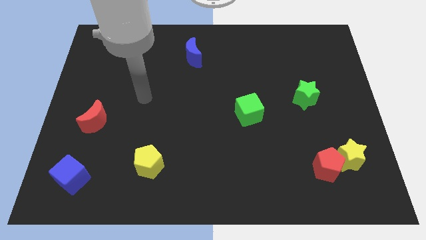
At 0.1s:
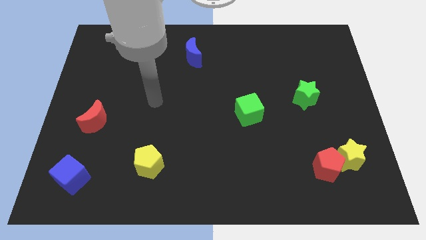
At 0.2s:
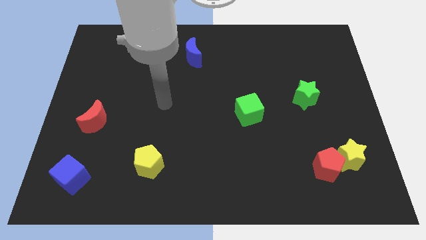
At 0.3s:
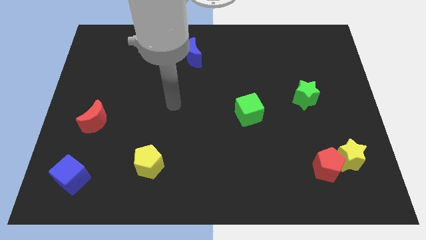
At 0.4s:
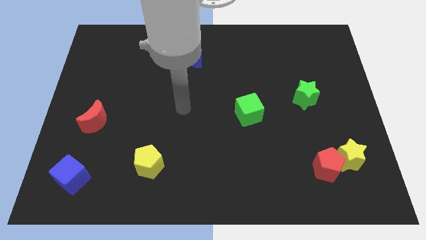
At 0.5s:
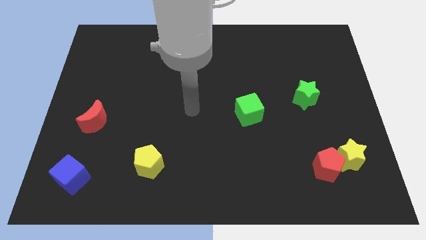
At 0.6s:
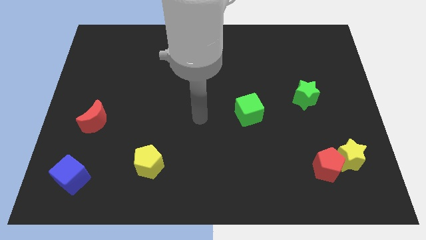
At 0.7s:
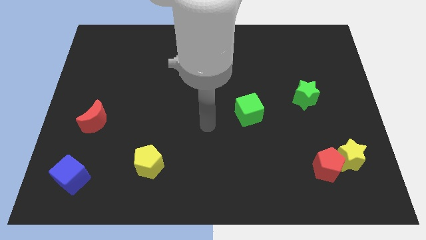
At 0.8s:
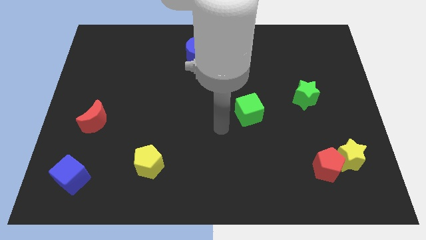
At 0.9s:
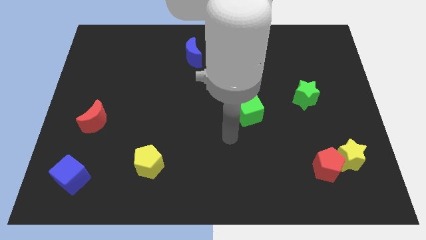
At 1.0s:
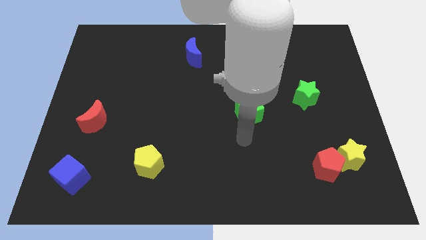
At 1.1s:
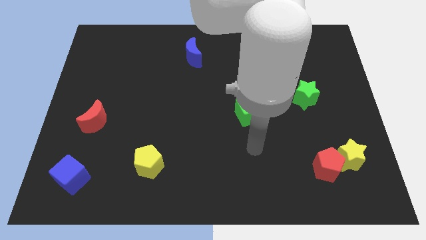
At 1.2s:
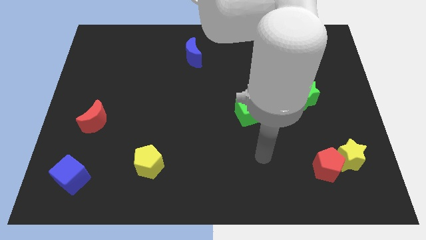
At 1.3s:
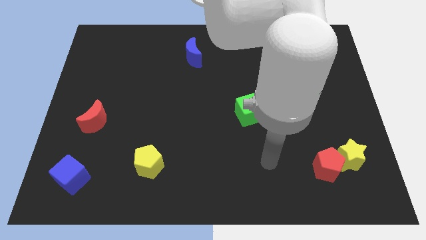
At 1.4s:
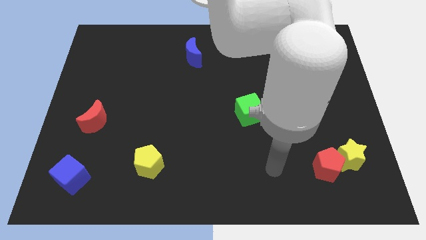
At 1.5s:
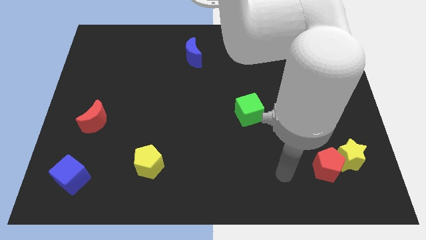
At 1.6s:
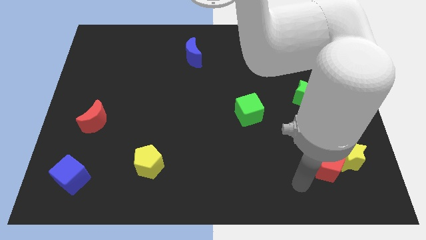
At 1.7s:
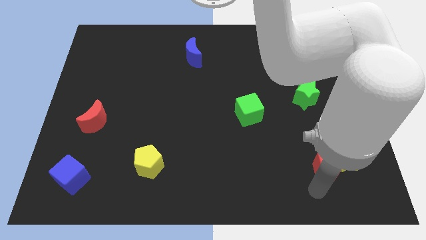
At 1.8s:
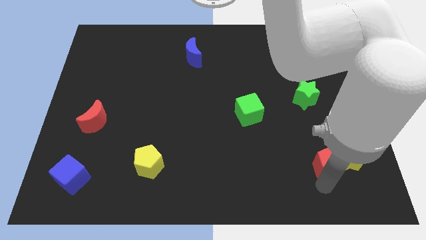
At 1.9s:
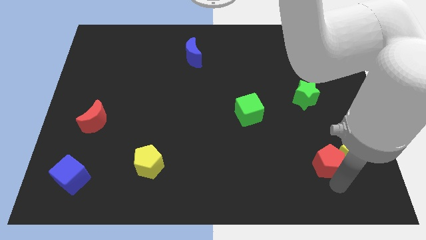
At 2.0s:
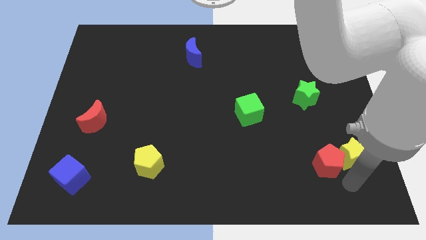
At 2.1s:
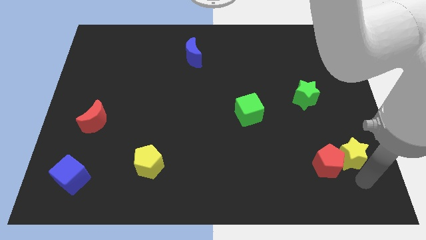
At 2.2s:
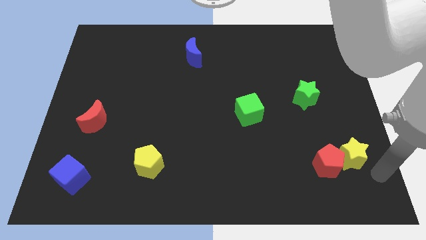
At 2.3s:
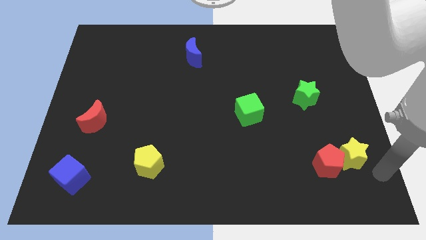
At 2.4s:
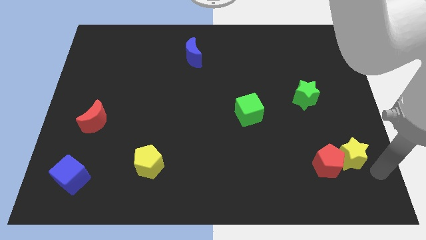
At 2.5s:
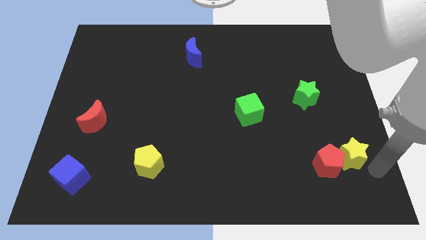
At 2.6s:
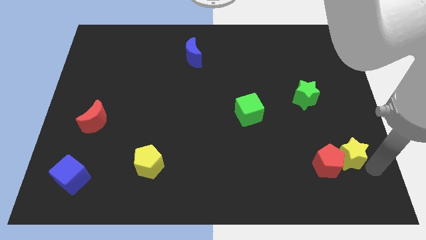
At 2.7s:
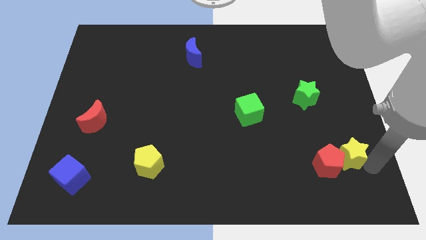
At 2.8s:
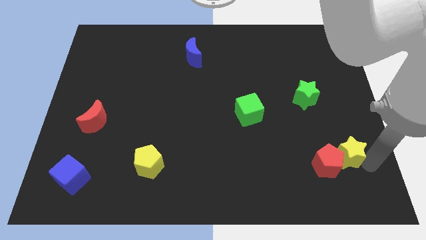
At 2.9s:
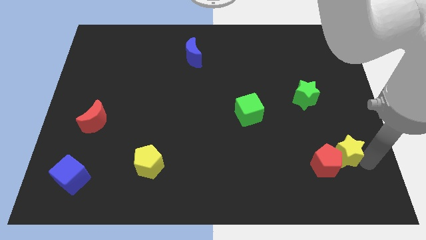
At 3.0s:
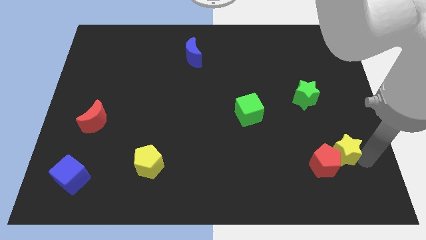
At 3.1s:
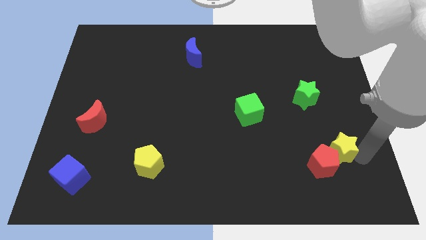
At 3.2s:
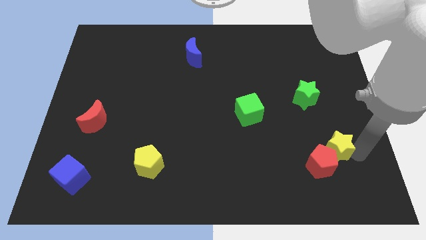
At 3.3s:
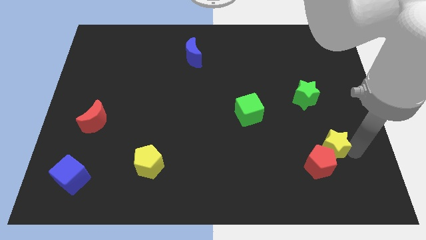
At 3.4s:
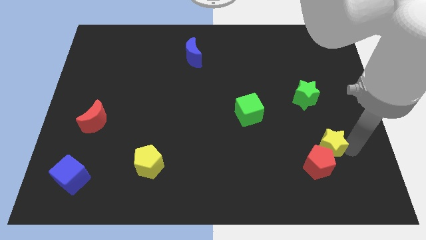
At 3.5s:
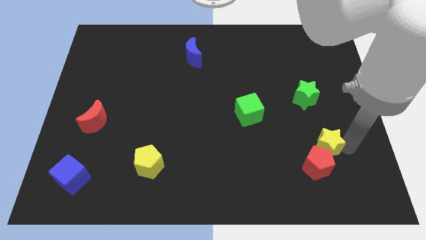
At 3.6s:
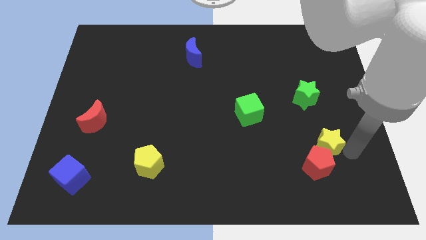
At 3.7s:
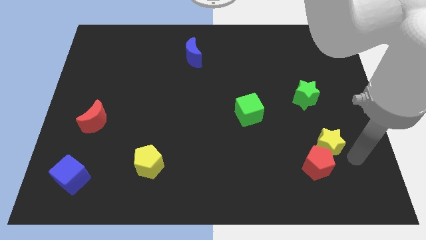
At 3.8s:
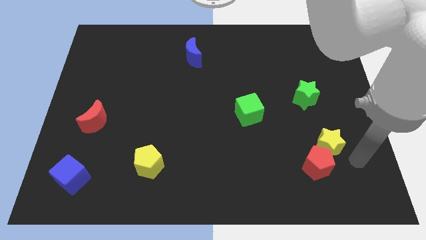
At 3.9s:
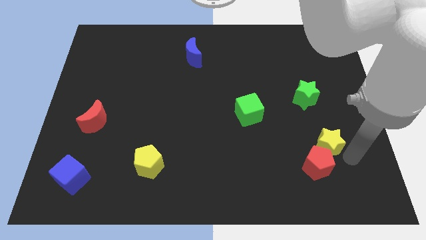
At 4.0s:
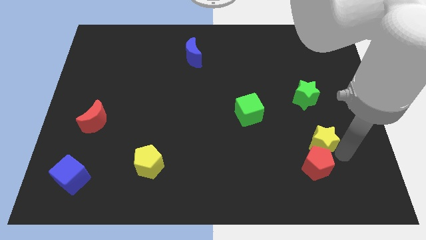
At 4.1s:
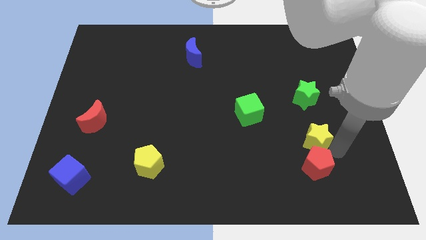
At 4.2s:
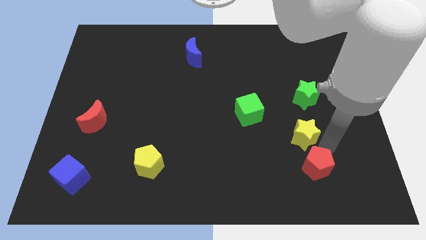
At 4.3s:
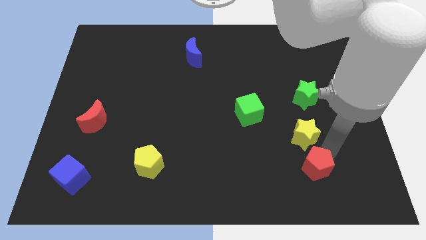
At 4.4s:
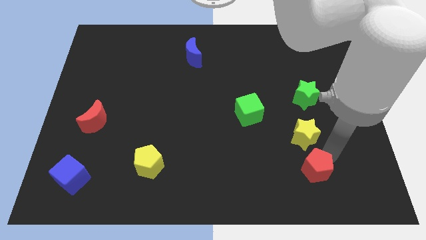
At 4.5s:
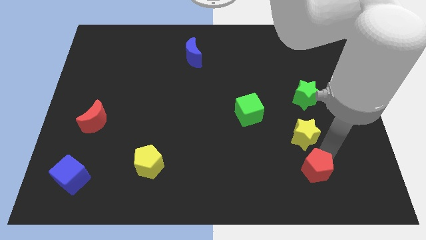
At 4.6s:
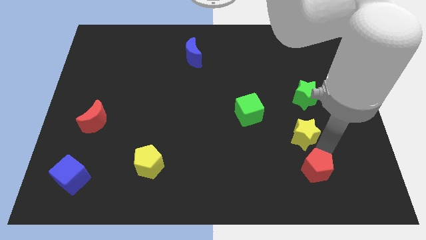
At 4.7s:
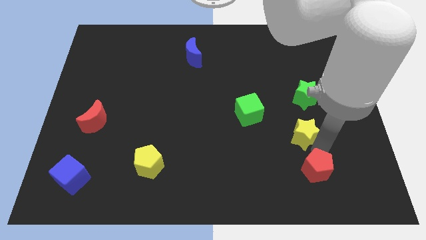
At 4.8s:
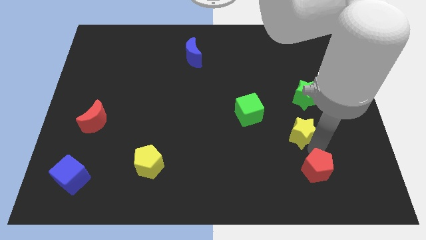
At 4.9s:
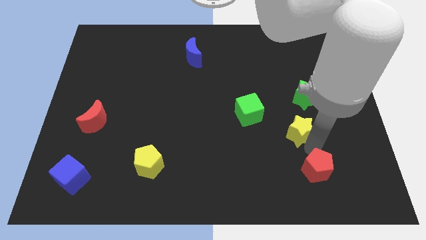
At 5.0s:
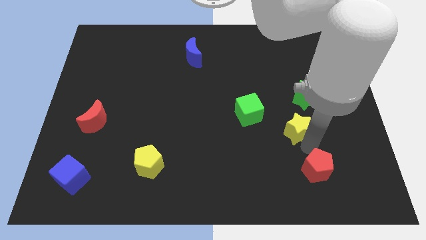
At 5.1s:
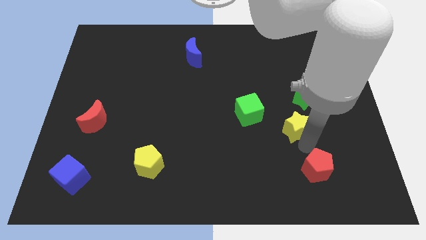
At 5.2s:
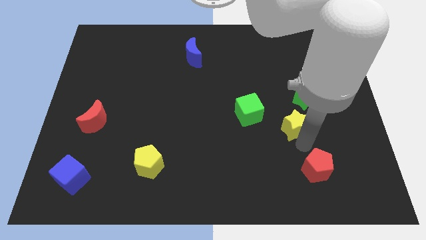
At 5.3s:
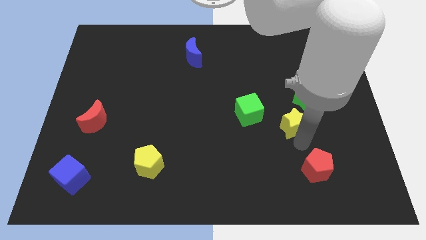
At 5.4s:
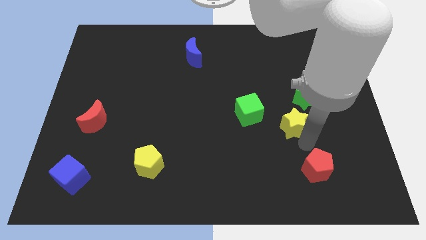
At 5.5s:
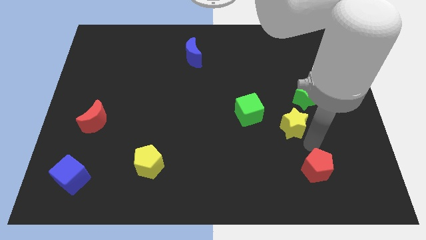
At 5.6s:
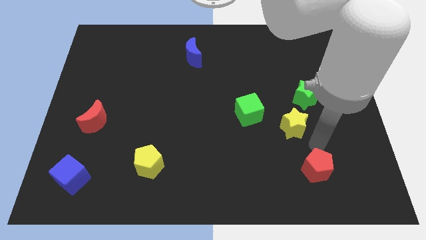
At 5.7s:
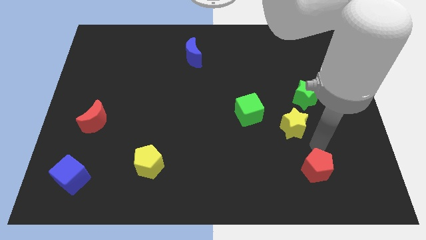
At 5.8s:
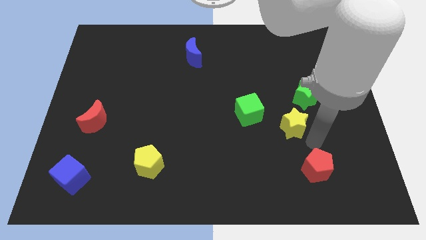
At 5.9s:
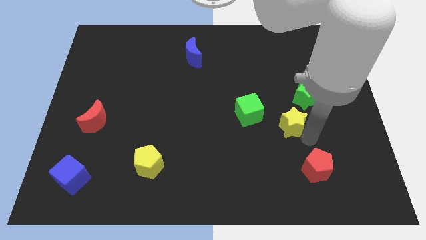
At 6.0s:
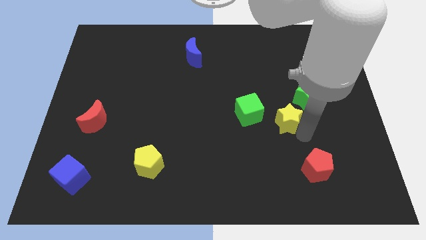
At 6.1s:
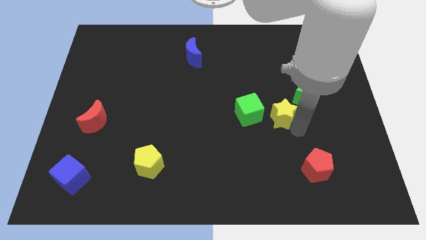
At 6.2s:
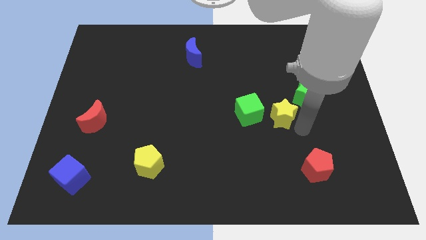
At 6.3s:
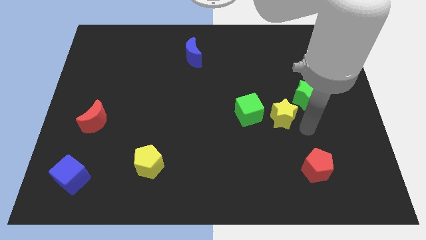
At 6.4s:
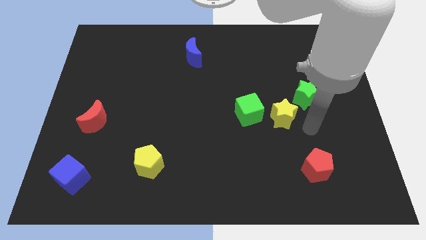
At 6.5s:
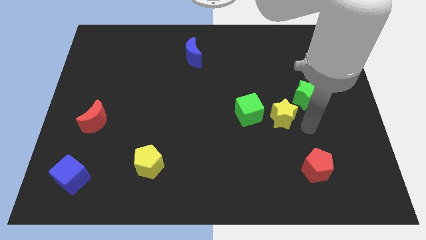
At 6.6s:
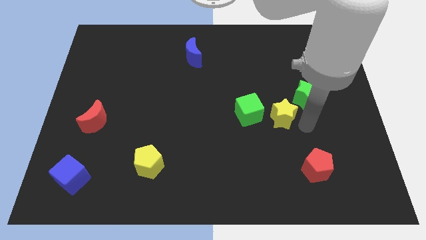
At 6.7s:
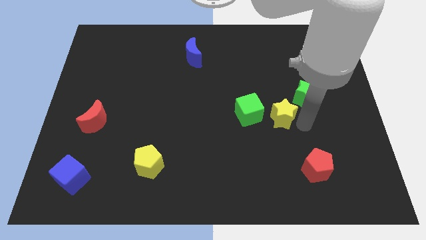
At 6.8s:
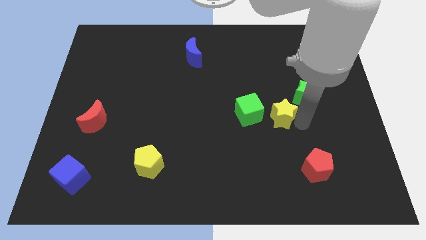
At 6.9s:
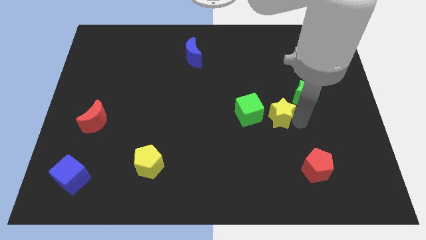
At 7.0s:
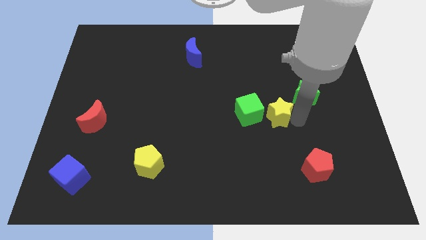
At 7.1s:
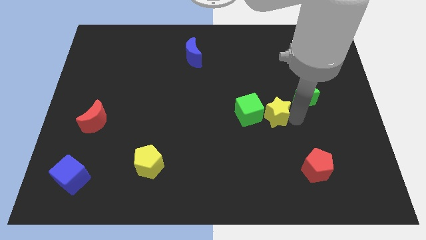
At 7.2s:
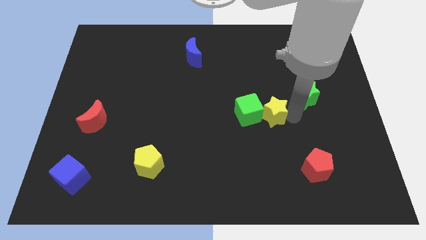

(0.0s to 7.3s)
push the yellow star towards the green cube

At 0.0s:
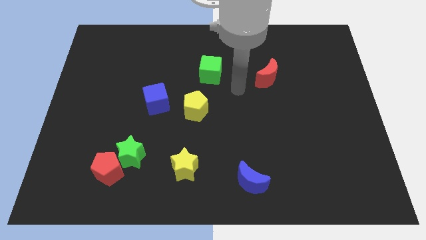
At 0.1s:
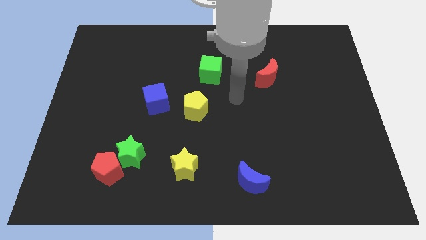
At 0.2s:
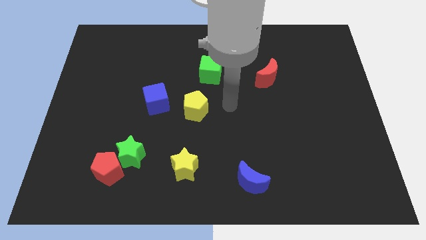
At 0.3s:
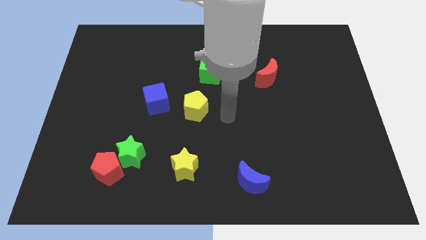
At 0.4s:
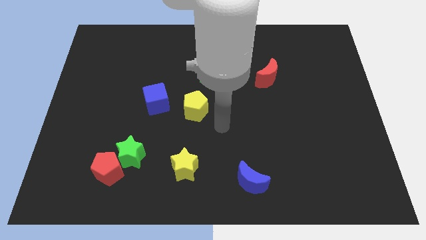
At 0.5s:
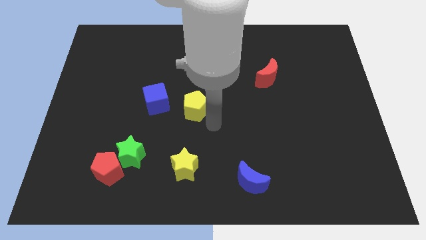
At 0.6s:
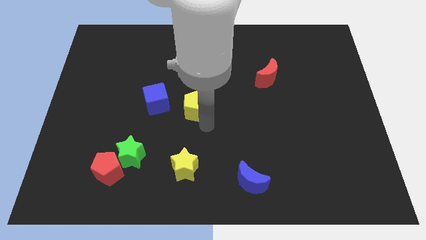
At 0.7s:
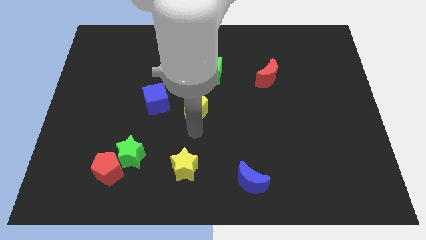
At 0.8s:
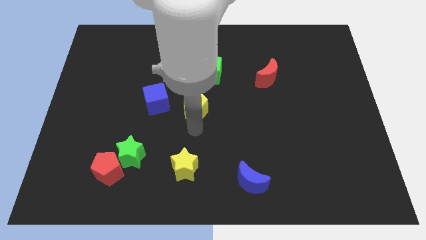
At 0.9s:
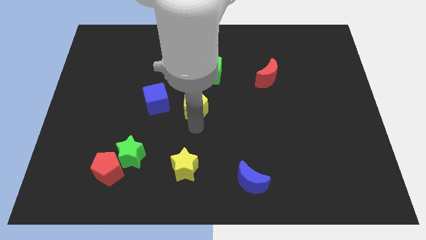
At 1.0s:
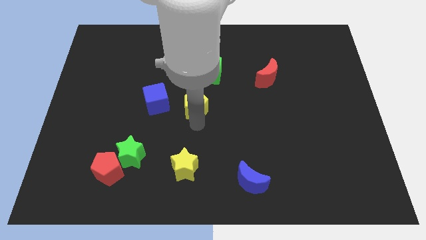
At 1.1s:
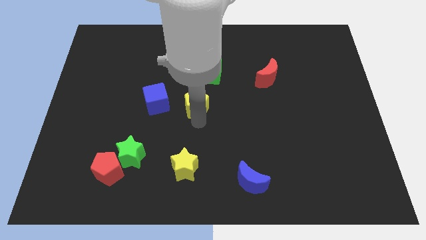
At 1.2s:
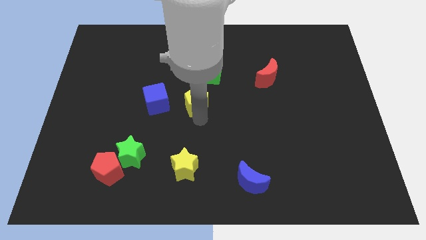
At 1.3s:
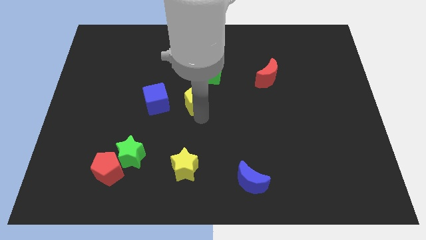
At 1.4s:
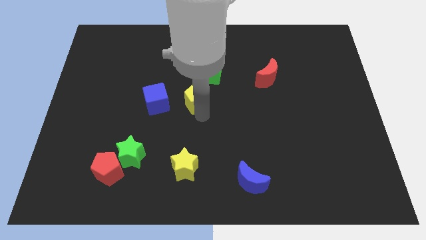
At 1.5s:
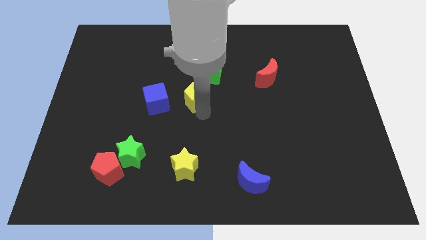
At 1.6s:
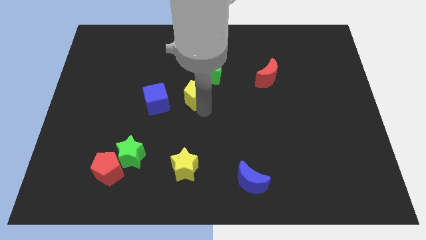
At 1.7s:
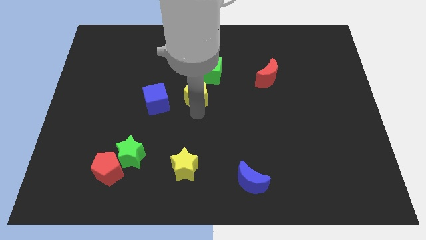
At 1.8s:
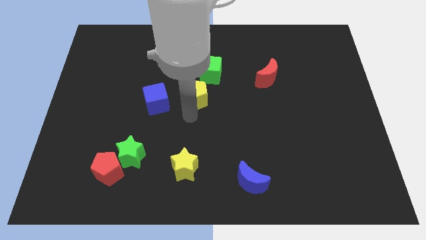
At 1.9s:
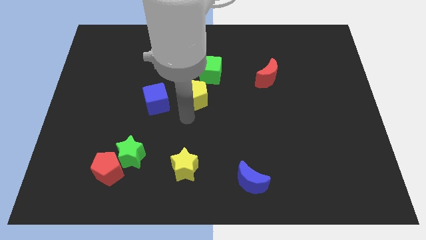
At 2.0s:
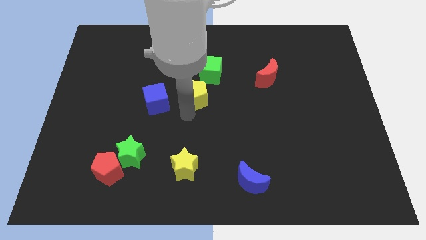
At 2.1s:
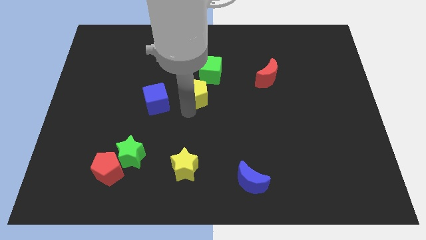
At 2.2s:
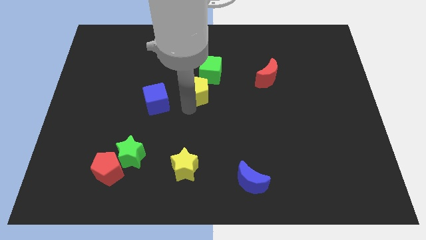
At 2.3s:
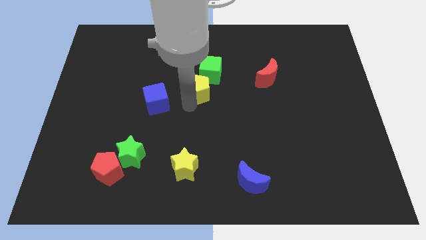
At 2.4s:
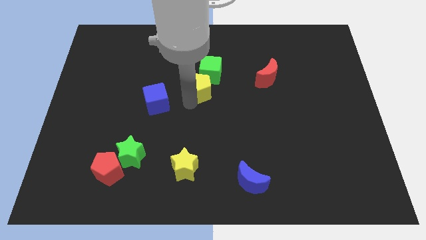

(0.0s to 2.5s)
put the yellow pentagon towards the green cube
